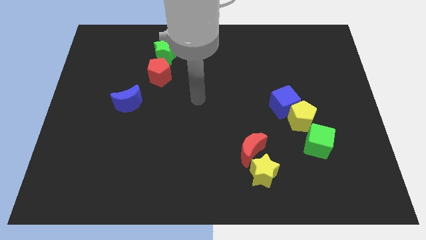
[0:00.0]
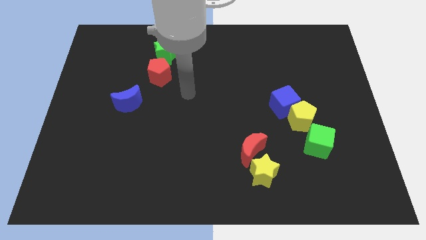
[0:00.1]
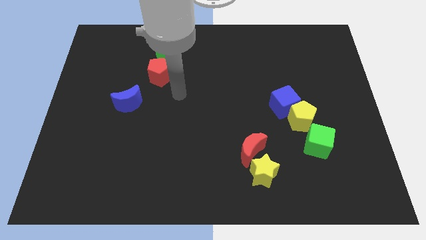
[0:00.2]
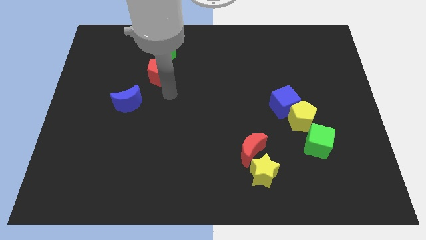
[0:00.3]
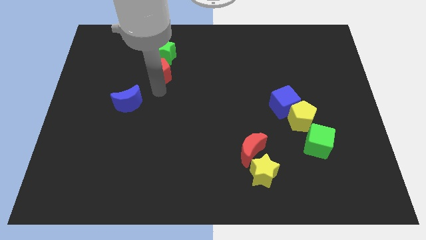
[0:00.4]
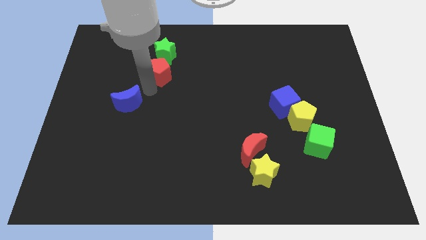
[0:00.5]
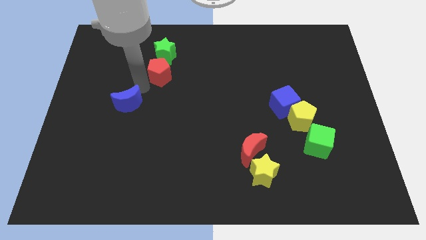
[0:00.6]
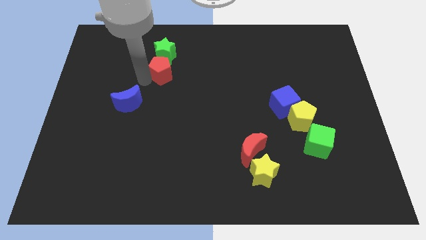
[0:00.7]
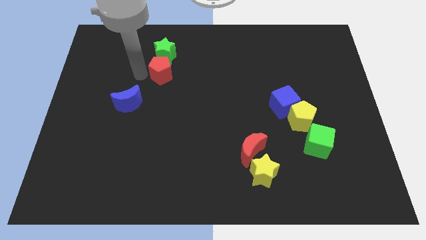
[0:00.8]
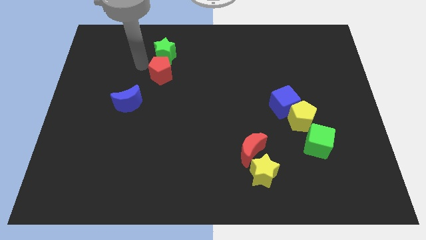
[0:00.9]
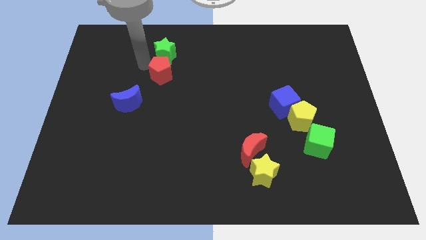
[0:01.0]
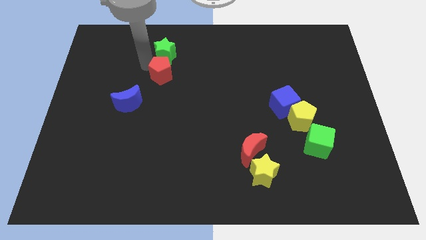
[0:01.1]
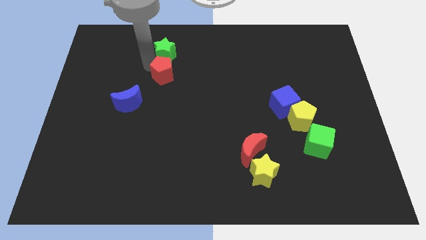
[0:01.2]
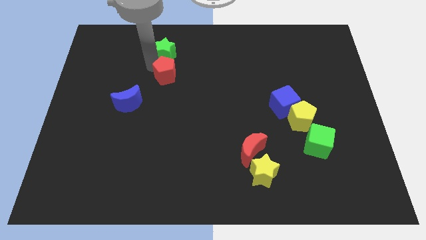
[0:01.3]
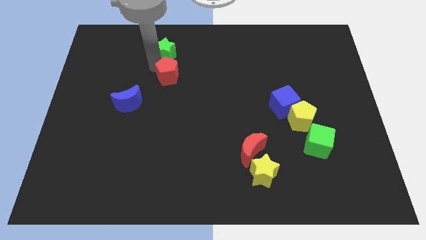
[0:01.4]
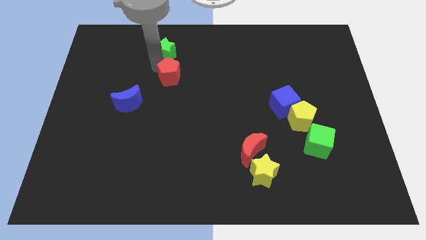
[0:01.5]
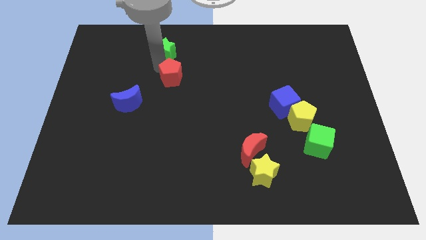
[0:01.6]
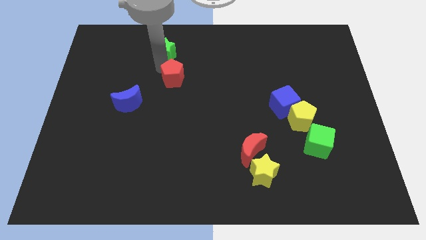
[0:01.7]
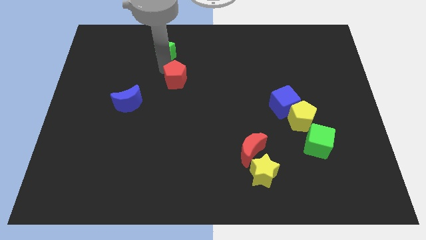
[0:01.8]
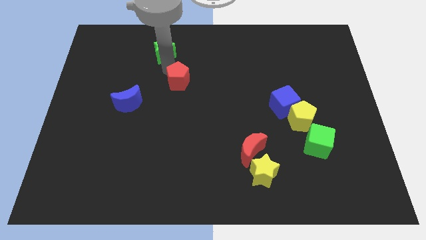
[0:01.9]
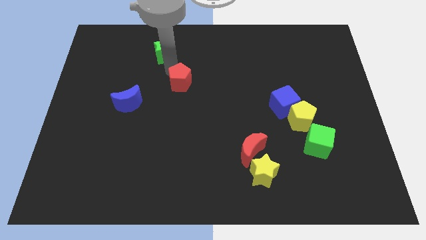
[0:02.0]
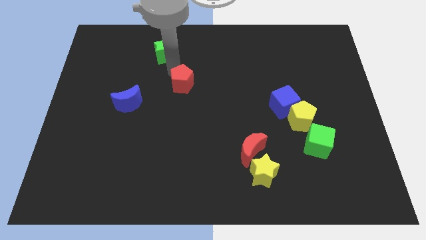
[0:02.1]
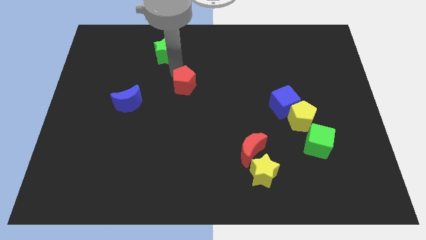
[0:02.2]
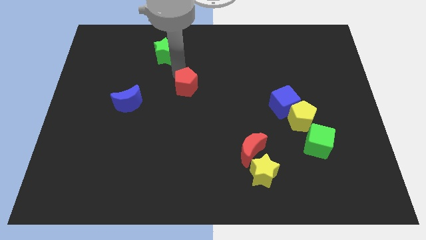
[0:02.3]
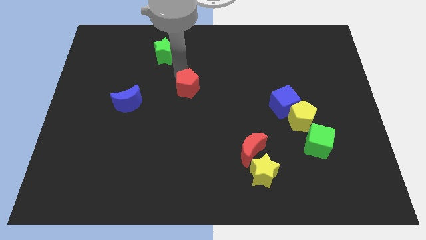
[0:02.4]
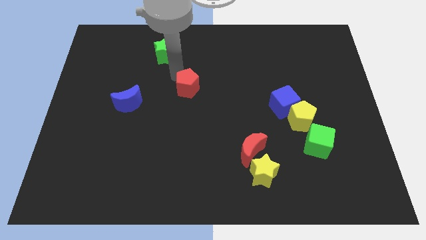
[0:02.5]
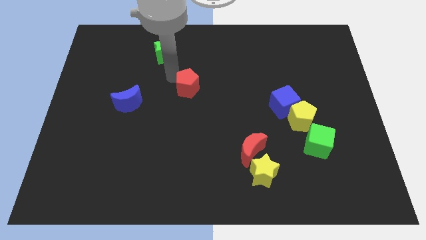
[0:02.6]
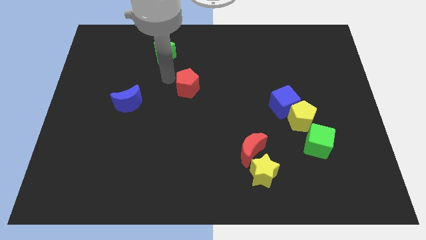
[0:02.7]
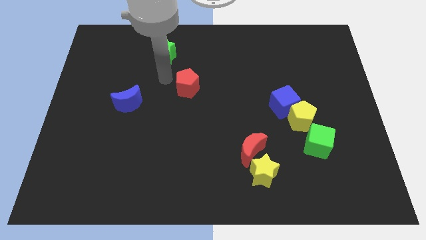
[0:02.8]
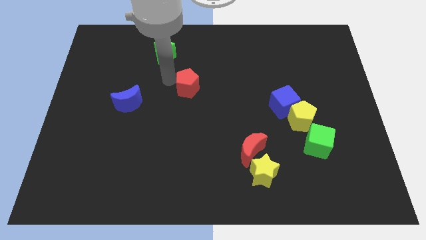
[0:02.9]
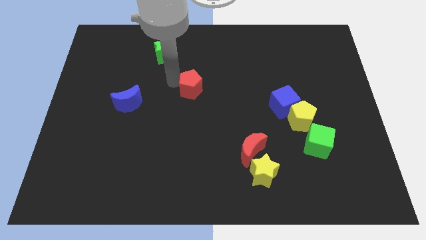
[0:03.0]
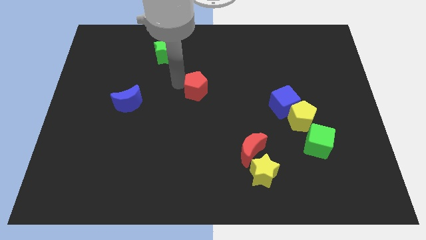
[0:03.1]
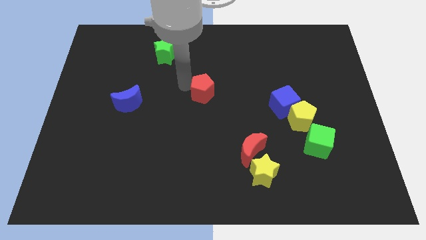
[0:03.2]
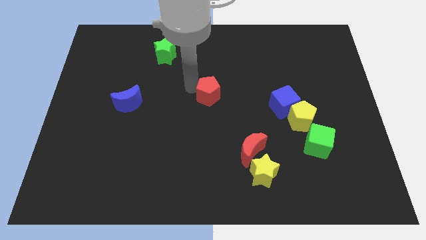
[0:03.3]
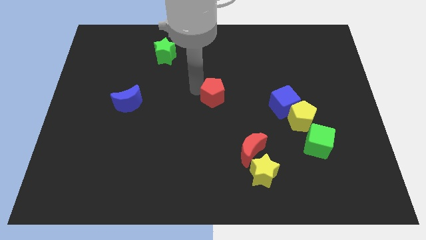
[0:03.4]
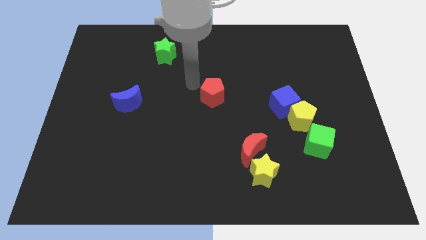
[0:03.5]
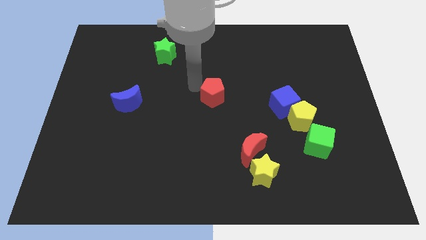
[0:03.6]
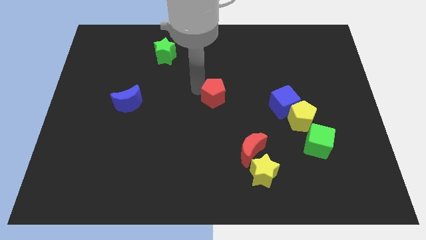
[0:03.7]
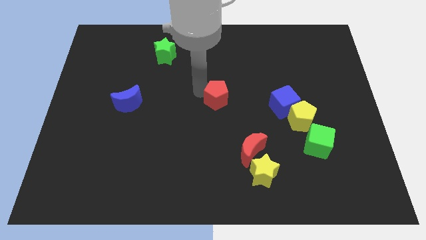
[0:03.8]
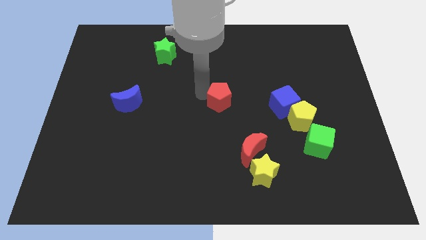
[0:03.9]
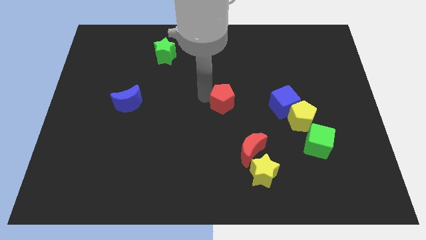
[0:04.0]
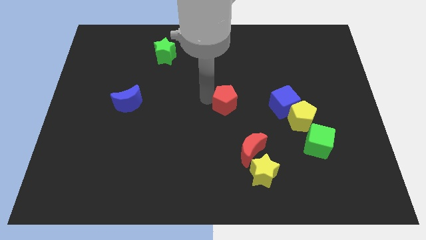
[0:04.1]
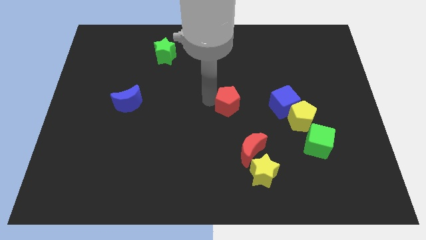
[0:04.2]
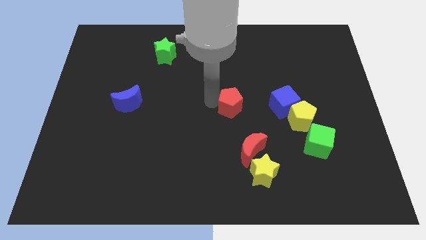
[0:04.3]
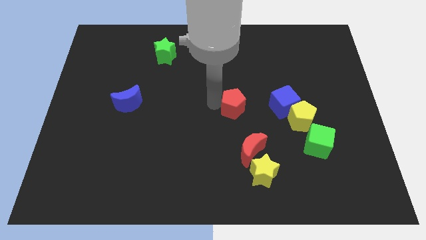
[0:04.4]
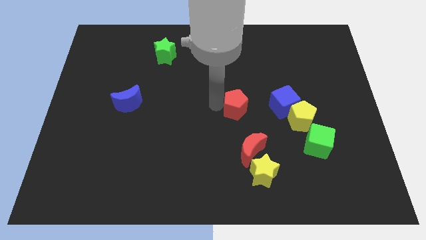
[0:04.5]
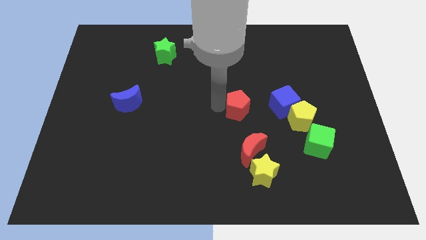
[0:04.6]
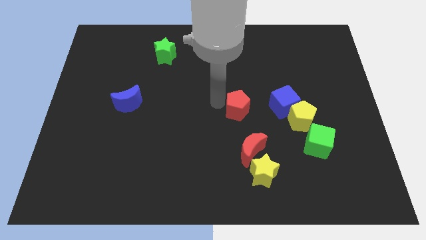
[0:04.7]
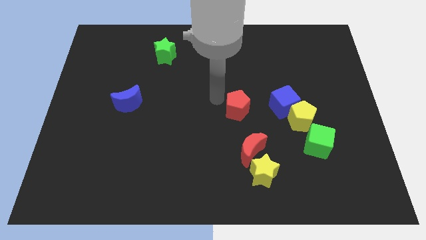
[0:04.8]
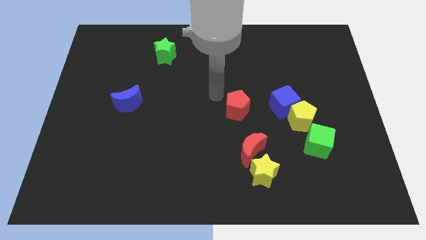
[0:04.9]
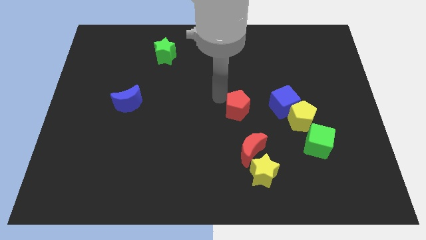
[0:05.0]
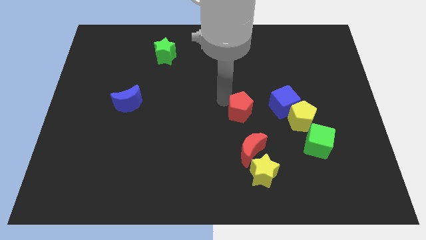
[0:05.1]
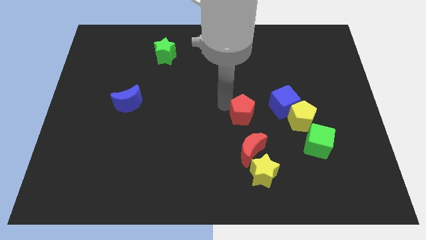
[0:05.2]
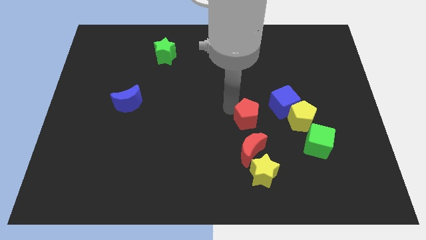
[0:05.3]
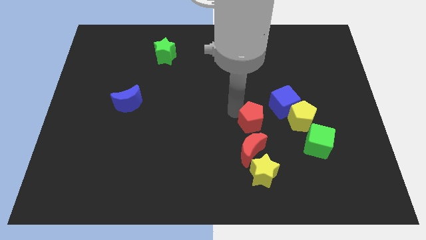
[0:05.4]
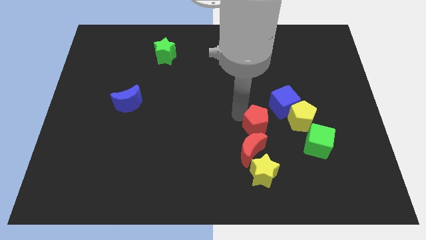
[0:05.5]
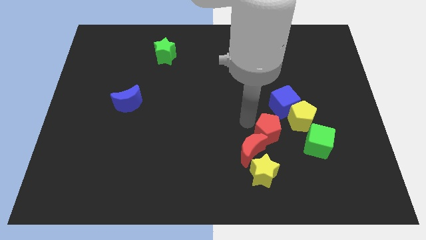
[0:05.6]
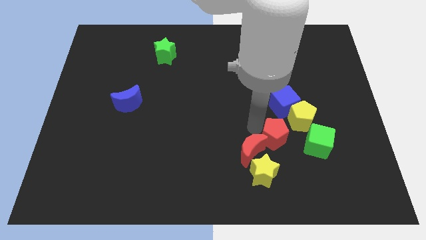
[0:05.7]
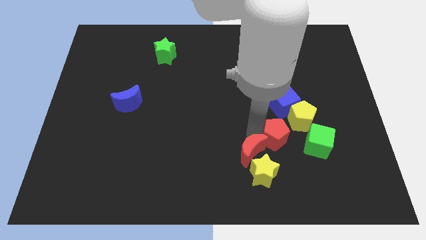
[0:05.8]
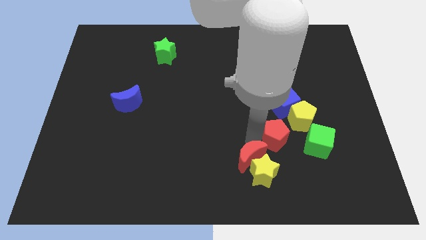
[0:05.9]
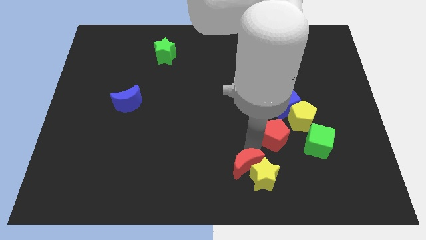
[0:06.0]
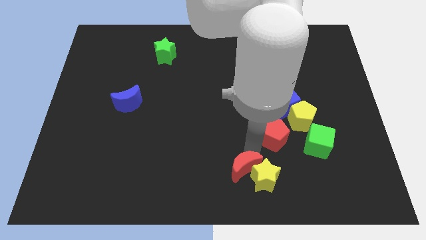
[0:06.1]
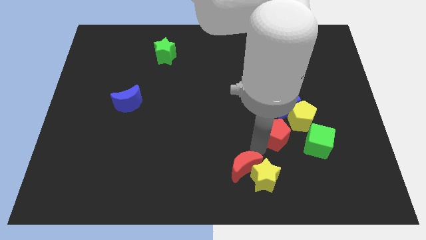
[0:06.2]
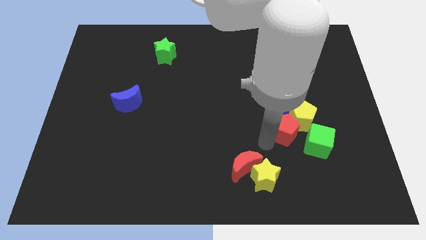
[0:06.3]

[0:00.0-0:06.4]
move the red pentagon towards the yellow pentagon
